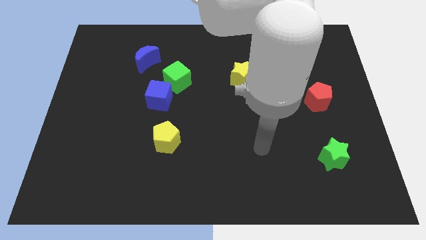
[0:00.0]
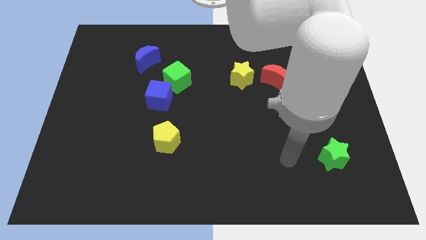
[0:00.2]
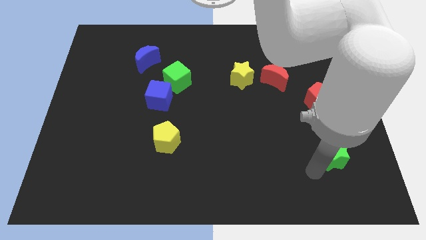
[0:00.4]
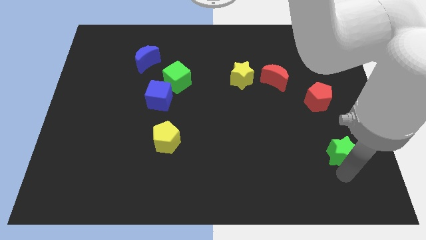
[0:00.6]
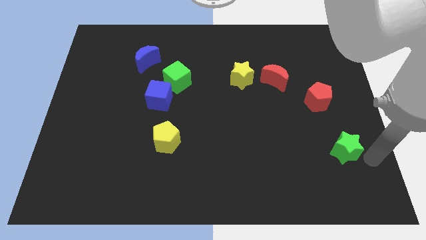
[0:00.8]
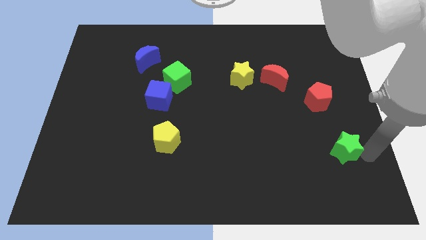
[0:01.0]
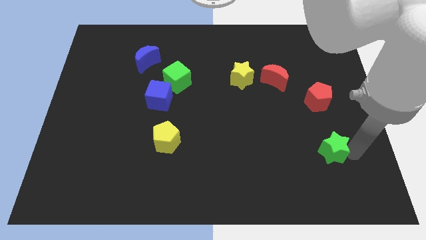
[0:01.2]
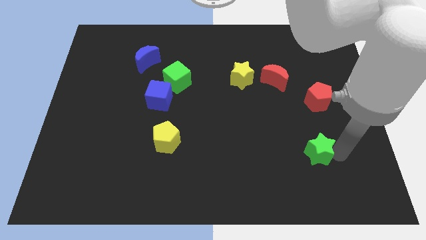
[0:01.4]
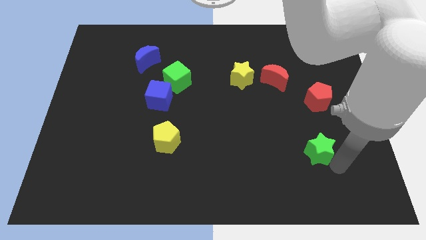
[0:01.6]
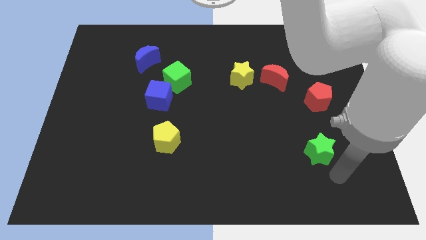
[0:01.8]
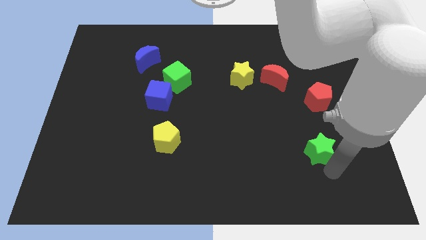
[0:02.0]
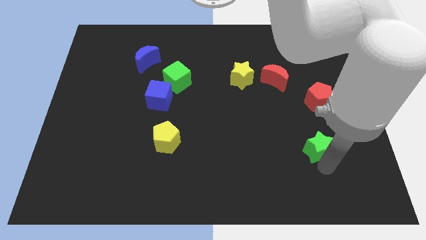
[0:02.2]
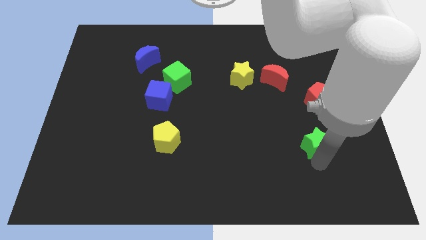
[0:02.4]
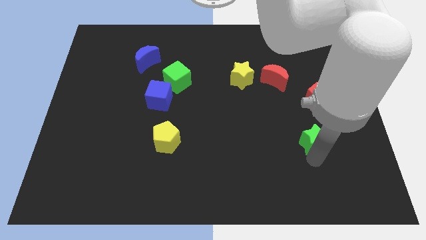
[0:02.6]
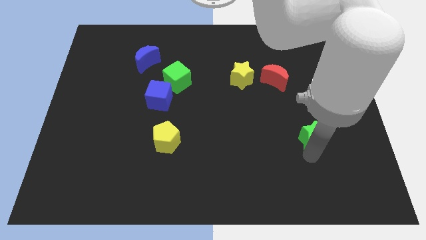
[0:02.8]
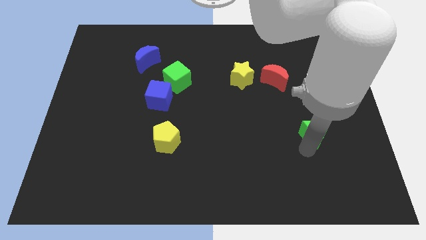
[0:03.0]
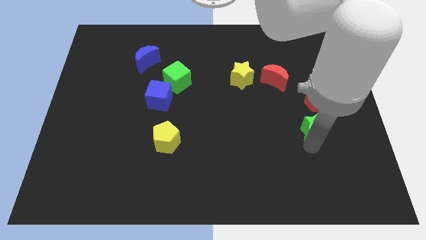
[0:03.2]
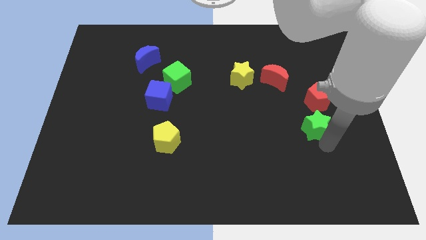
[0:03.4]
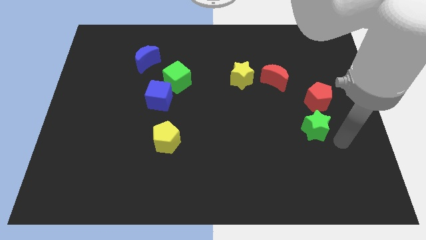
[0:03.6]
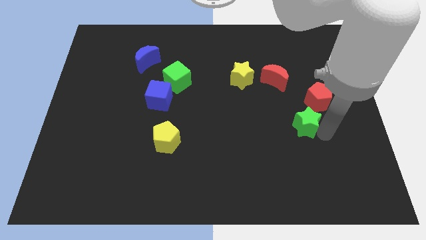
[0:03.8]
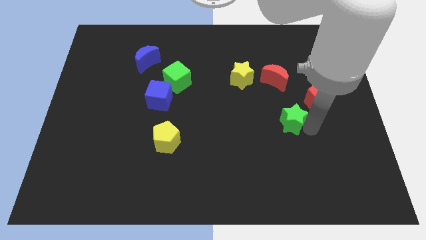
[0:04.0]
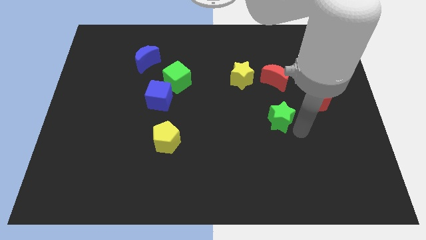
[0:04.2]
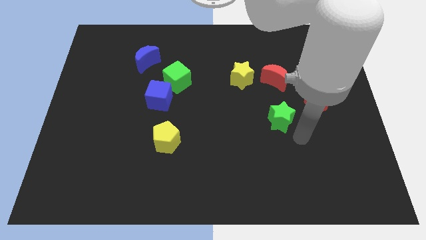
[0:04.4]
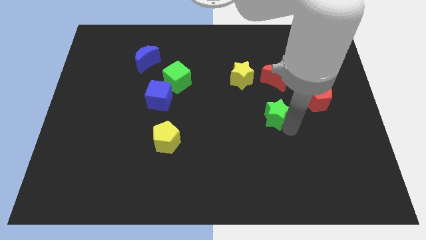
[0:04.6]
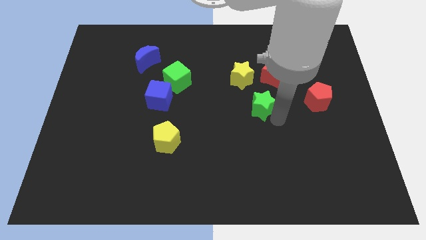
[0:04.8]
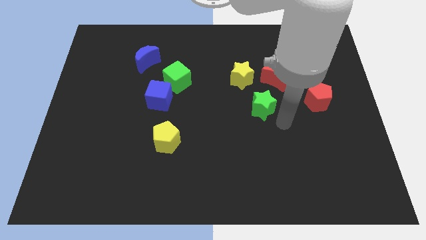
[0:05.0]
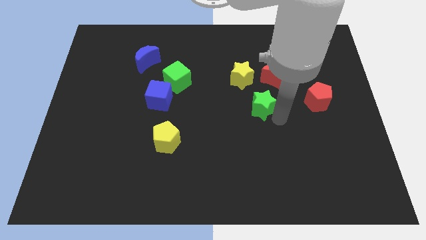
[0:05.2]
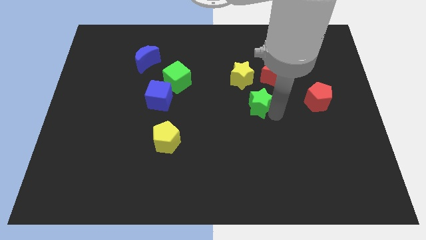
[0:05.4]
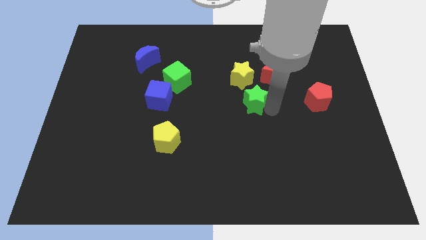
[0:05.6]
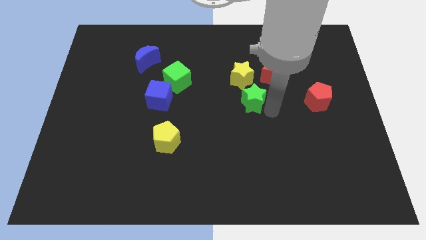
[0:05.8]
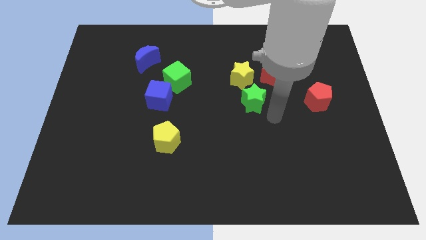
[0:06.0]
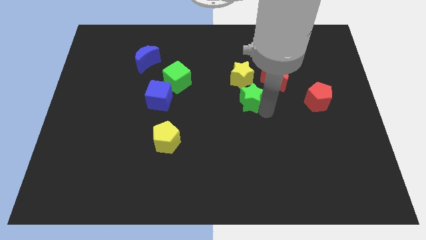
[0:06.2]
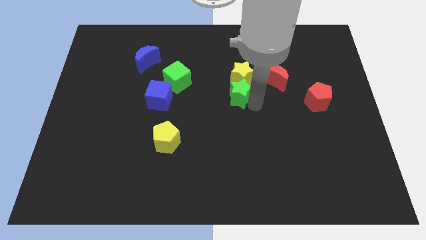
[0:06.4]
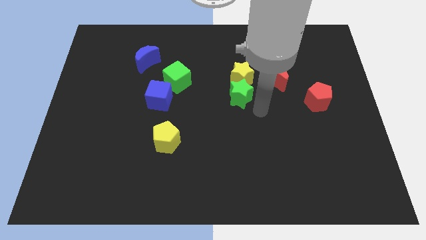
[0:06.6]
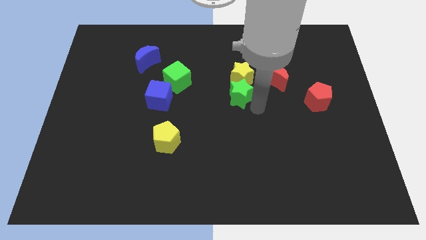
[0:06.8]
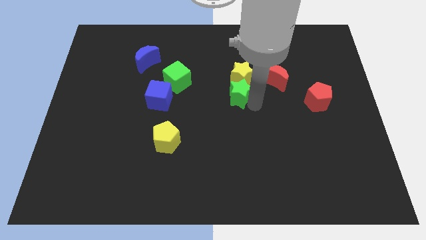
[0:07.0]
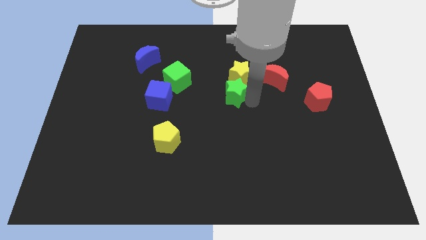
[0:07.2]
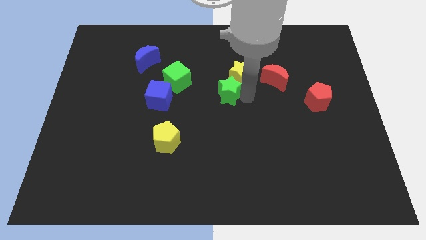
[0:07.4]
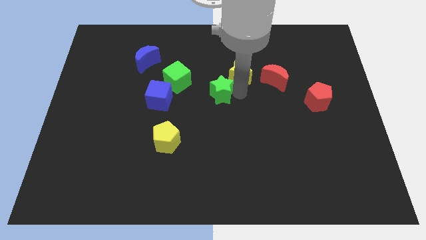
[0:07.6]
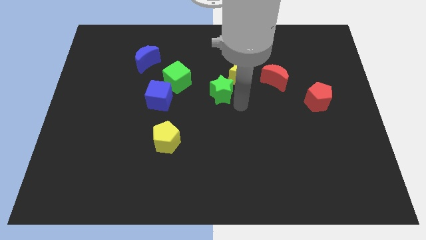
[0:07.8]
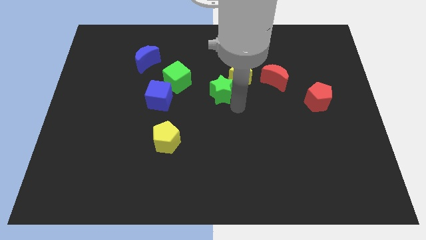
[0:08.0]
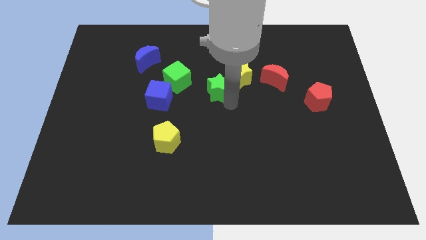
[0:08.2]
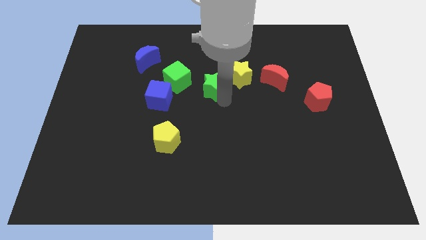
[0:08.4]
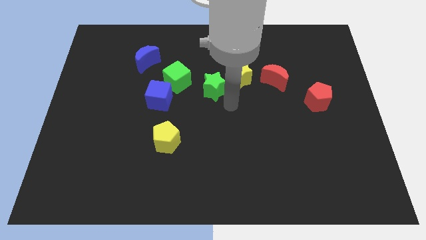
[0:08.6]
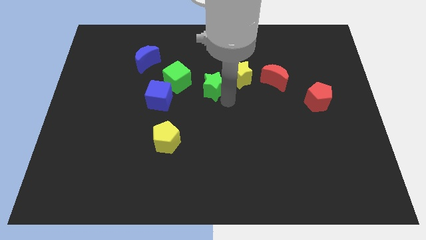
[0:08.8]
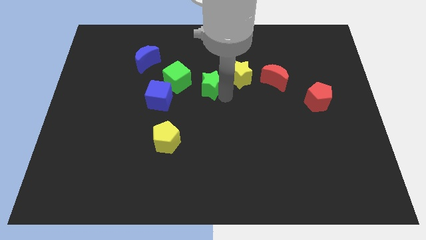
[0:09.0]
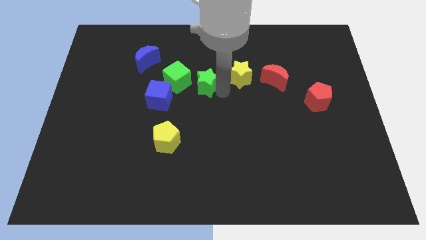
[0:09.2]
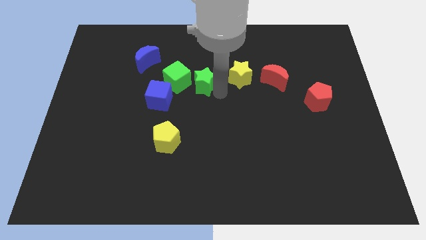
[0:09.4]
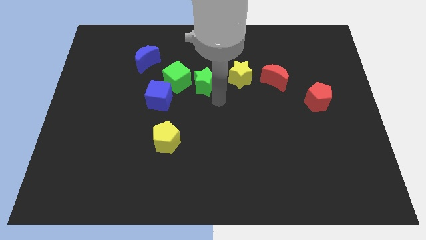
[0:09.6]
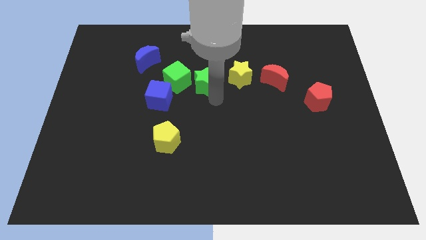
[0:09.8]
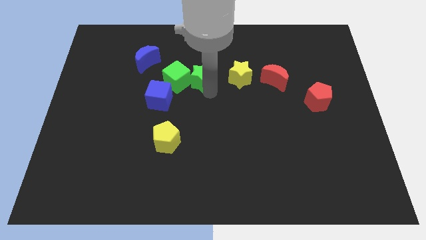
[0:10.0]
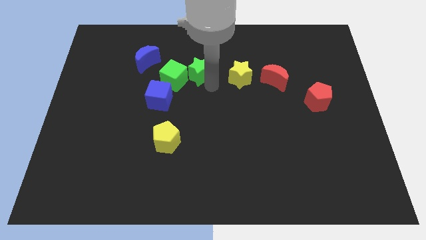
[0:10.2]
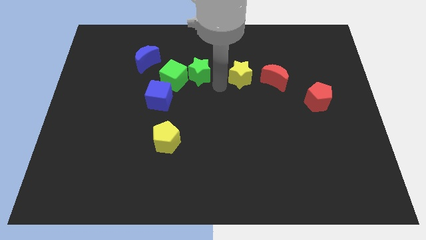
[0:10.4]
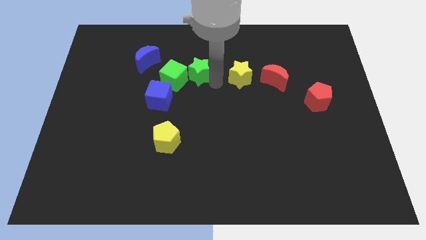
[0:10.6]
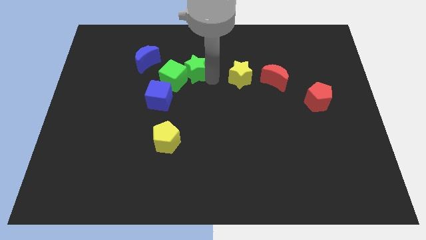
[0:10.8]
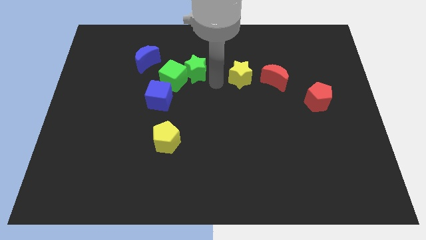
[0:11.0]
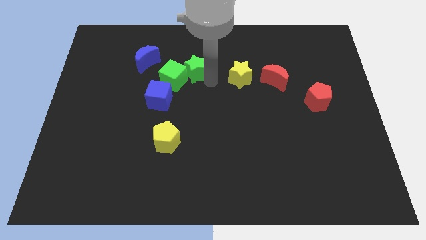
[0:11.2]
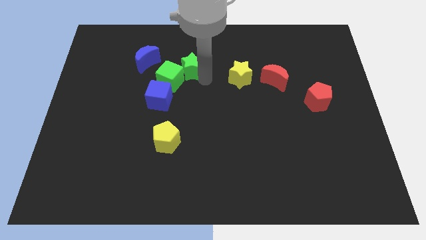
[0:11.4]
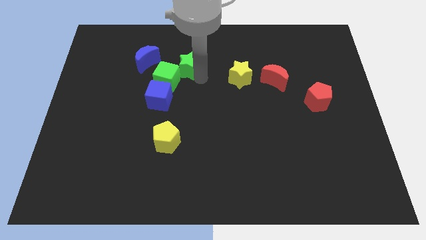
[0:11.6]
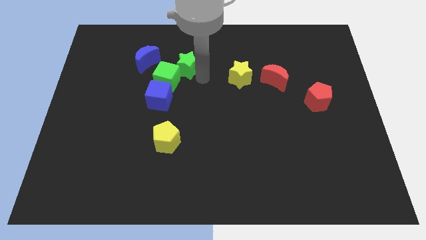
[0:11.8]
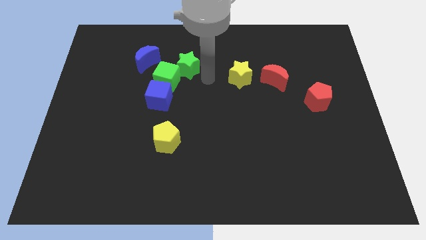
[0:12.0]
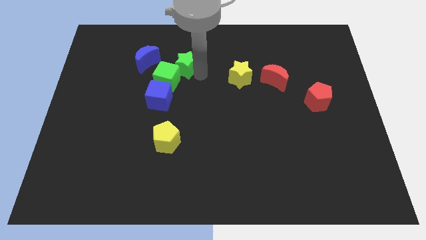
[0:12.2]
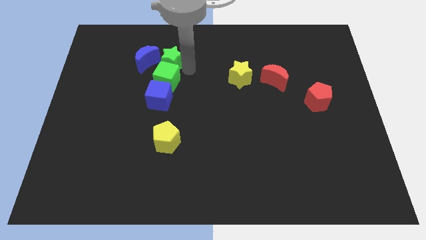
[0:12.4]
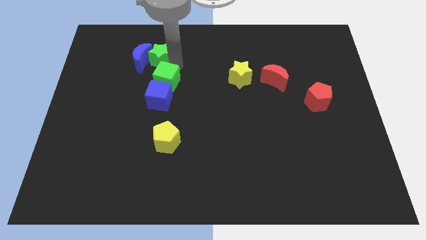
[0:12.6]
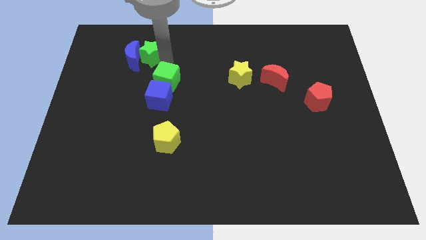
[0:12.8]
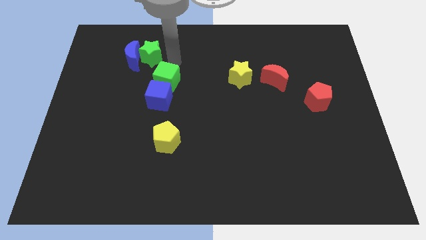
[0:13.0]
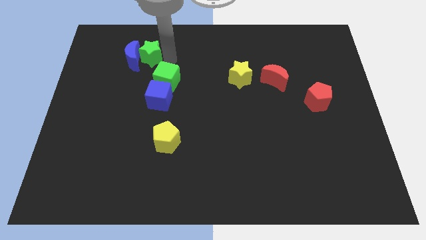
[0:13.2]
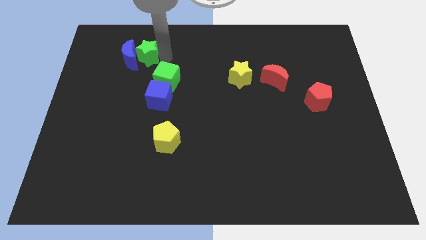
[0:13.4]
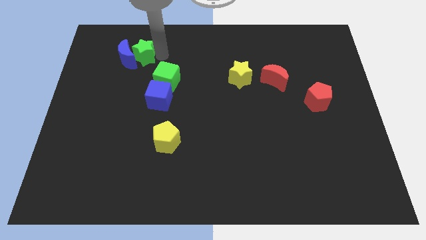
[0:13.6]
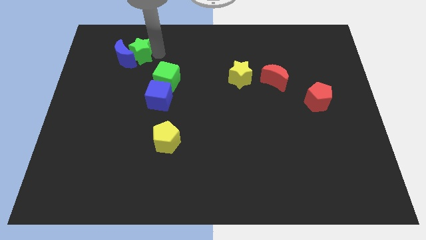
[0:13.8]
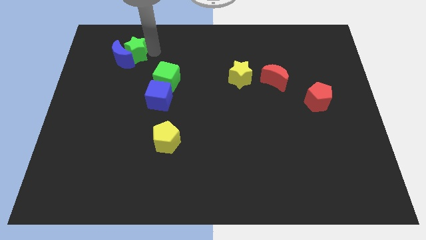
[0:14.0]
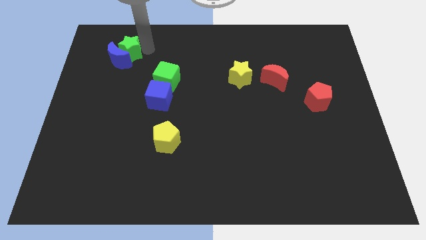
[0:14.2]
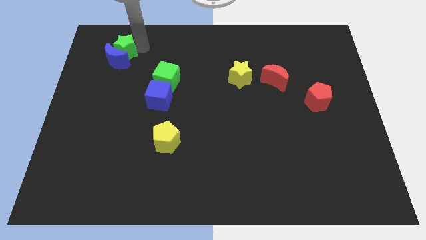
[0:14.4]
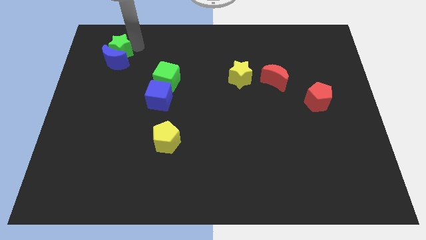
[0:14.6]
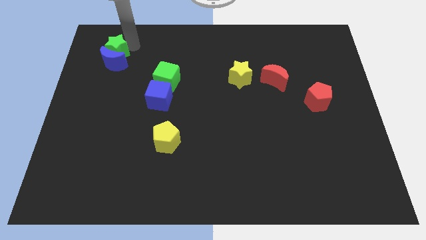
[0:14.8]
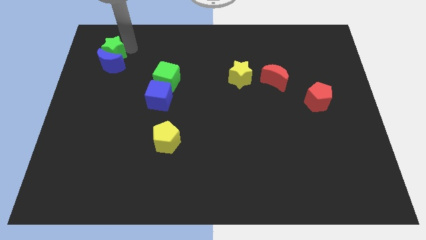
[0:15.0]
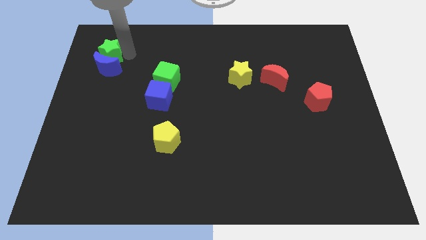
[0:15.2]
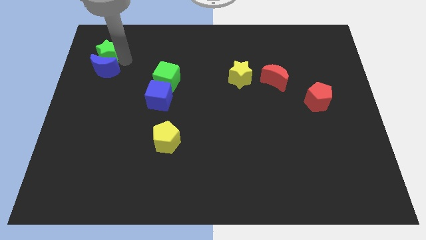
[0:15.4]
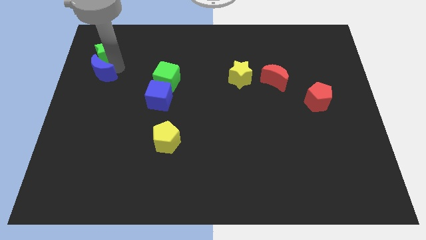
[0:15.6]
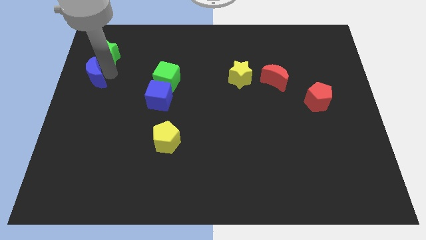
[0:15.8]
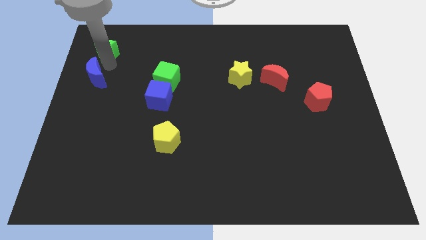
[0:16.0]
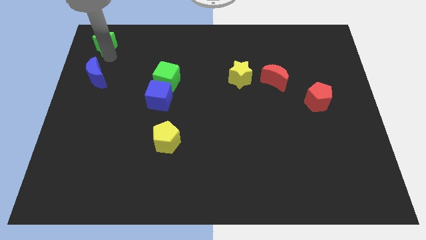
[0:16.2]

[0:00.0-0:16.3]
put the green star to the upper left corner
